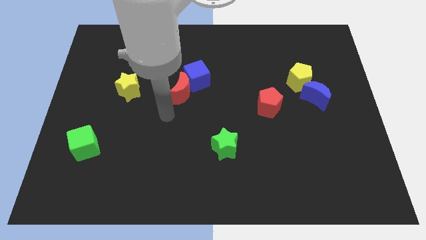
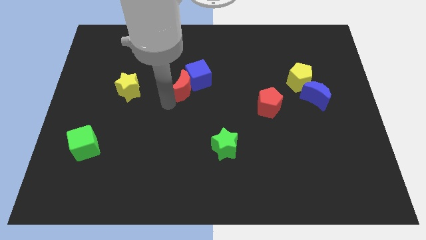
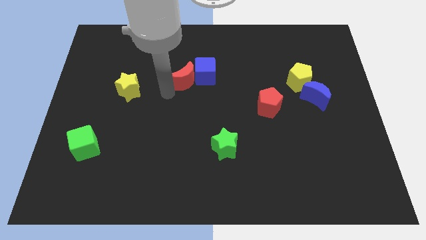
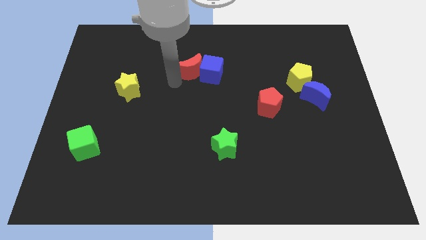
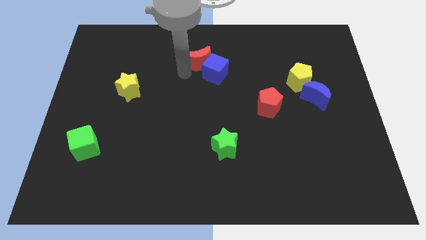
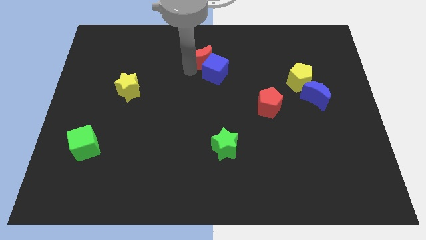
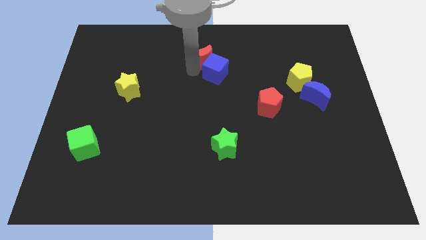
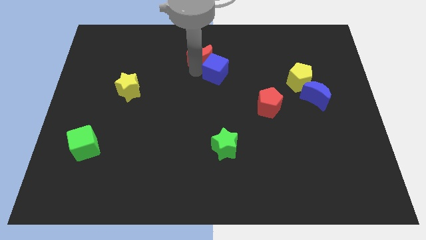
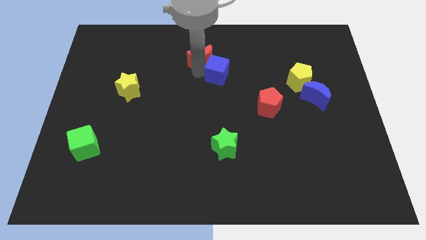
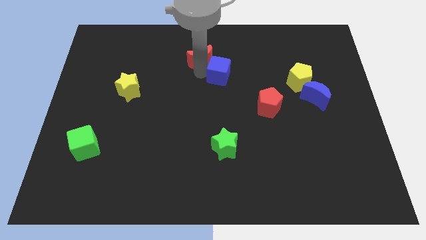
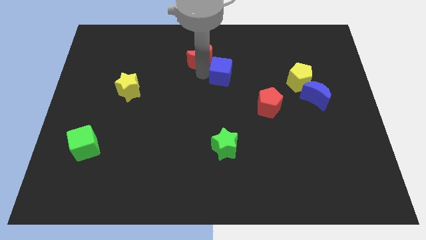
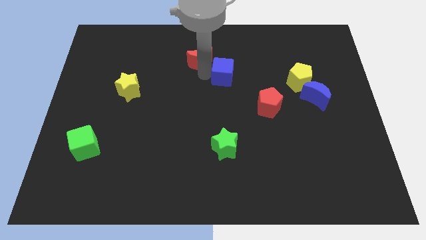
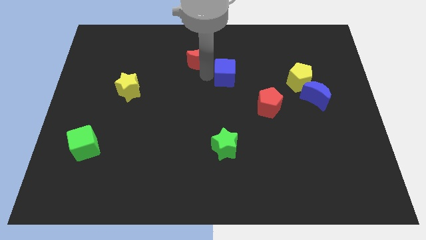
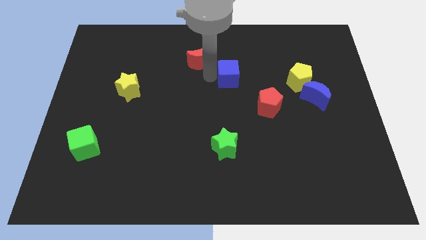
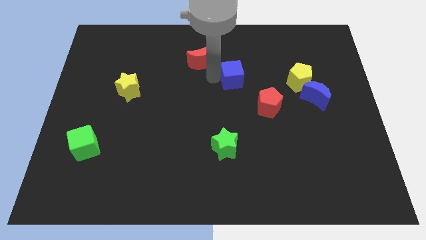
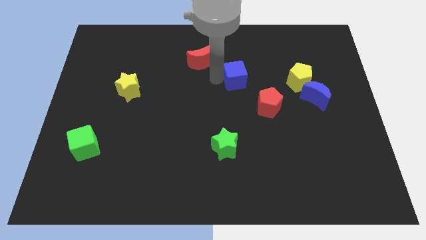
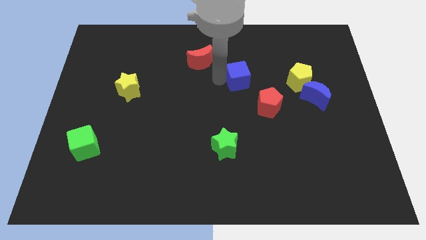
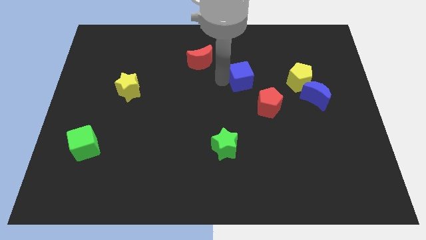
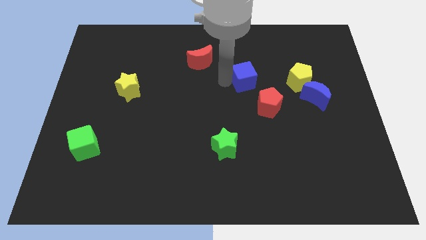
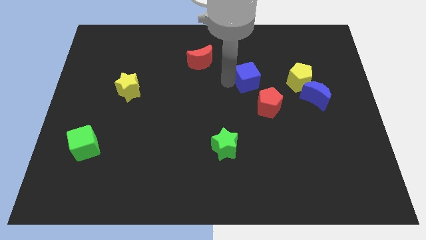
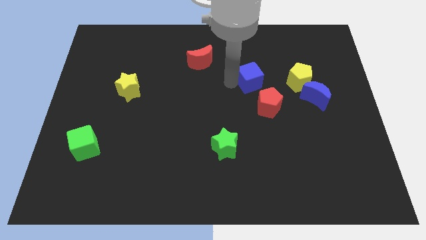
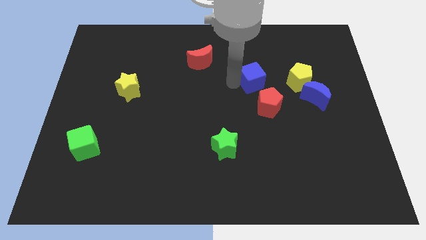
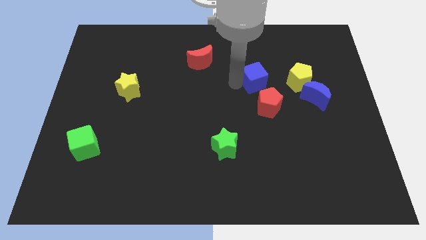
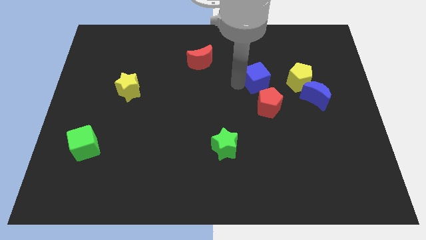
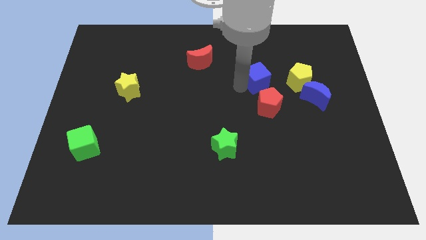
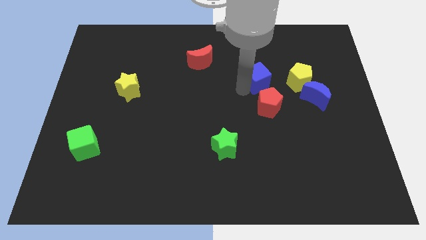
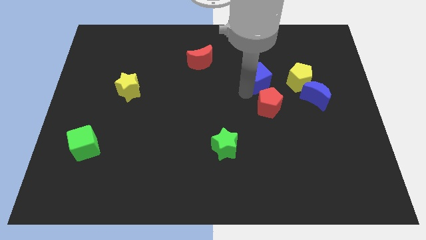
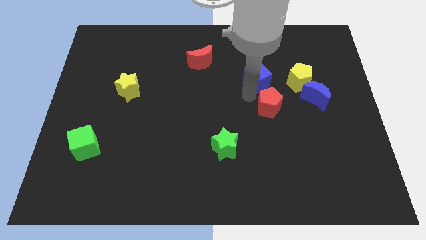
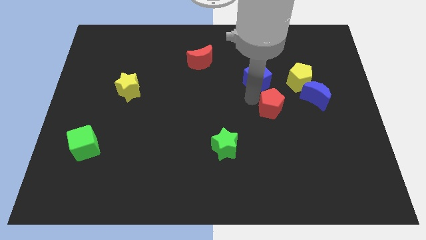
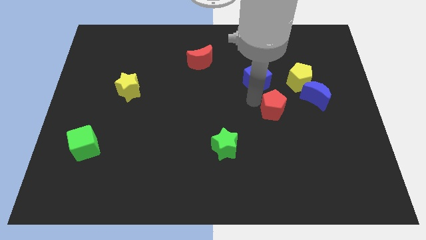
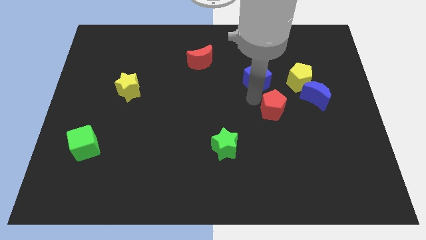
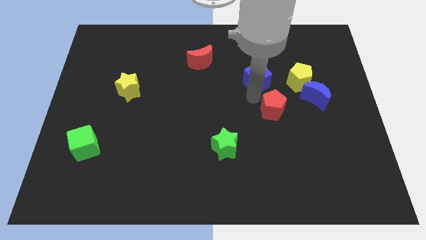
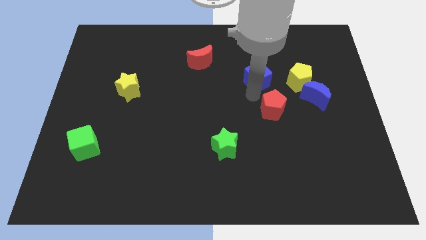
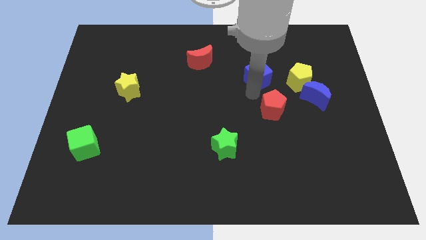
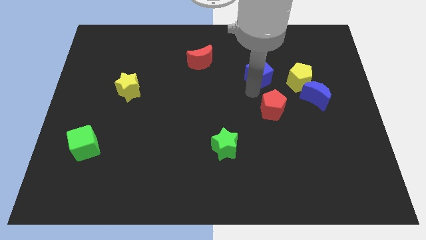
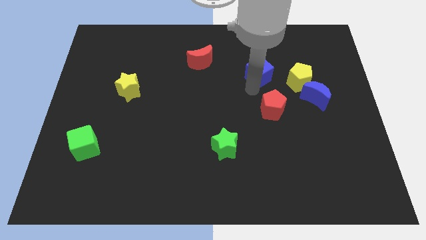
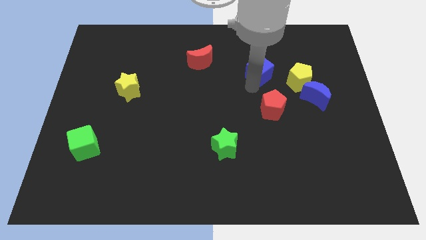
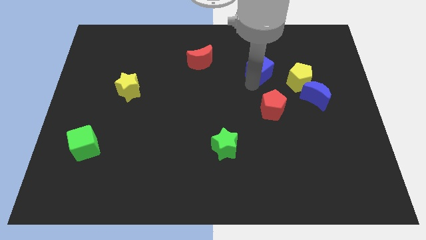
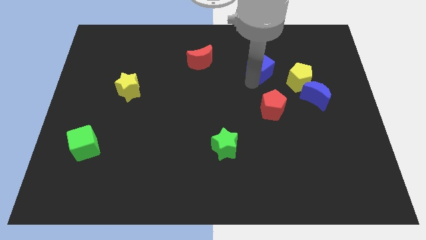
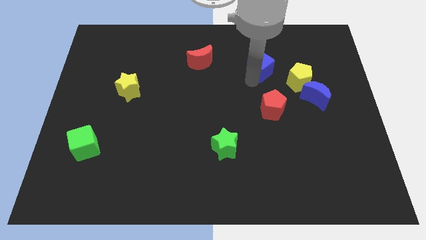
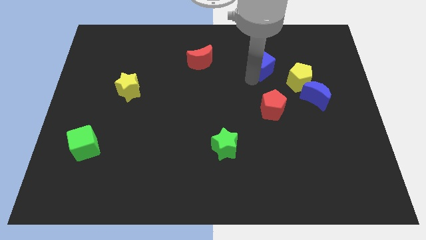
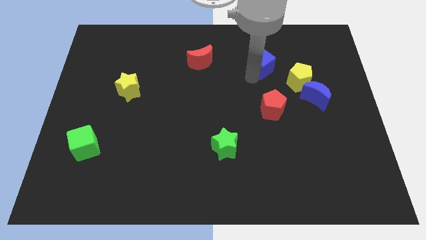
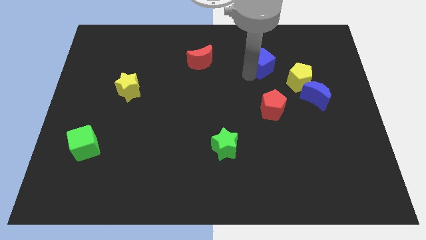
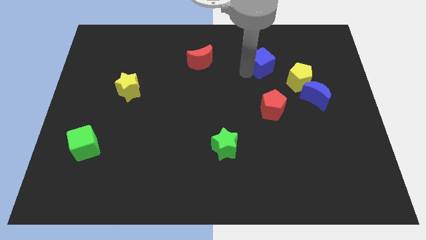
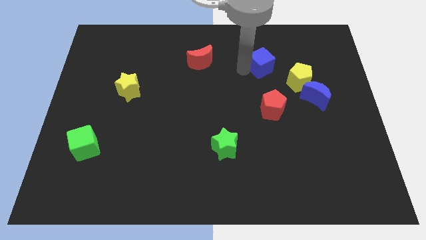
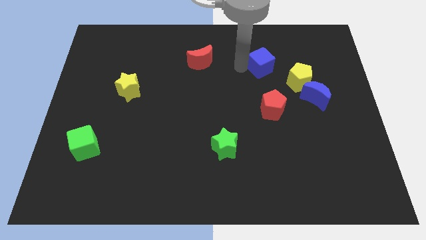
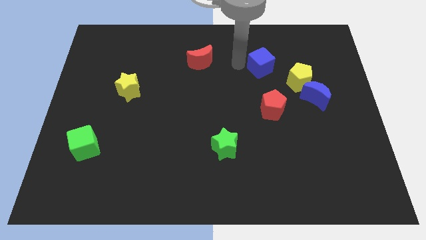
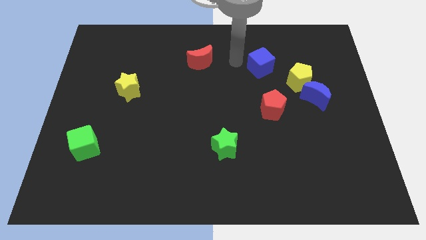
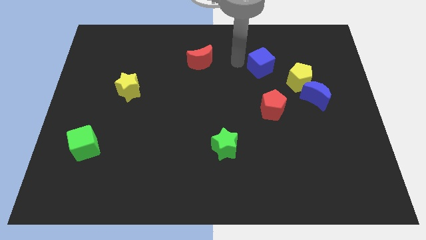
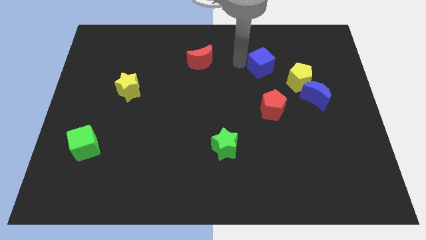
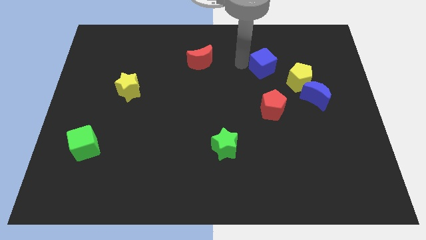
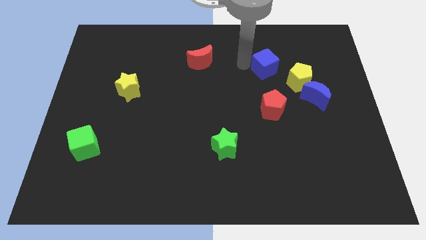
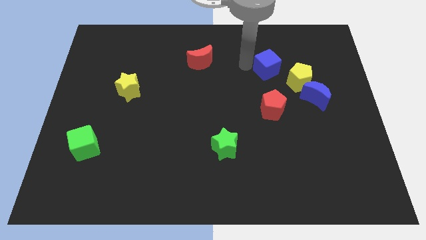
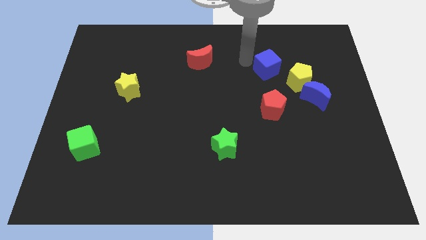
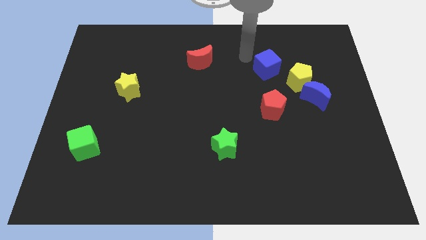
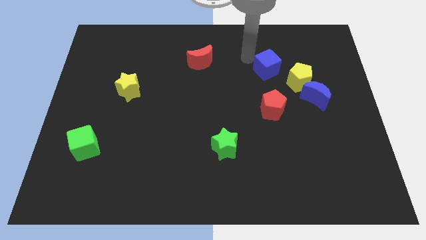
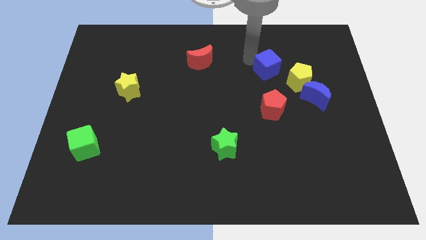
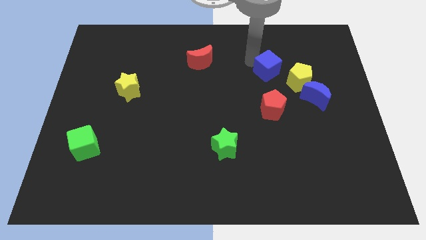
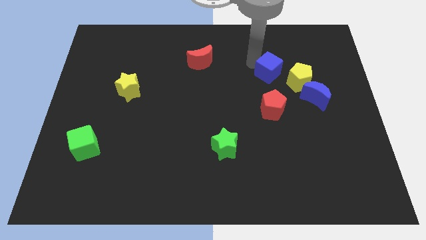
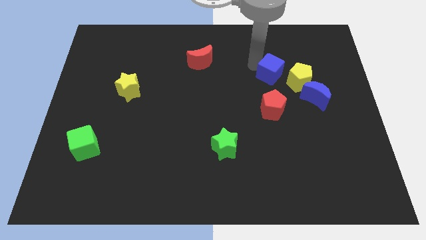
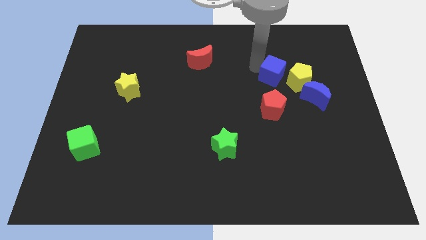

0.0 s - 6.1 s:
put the blue cube to the top left of the blue moon

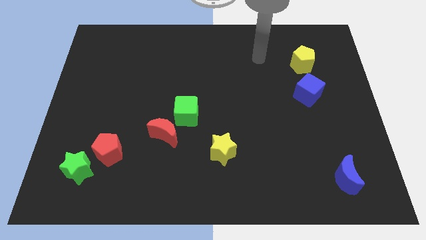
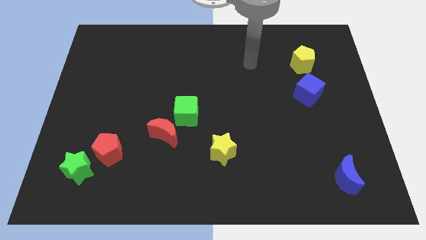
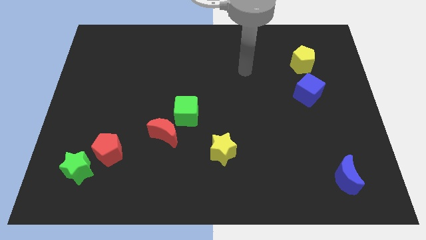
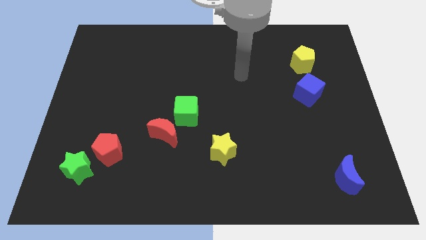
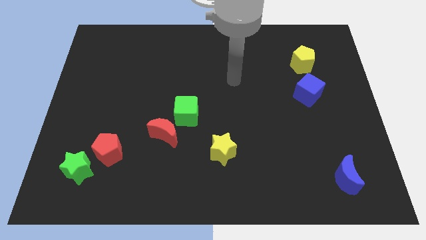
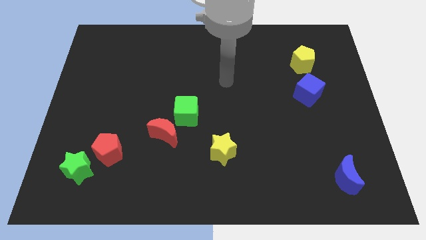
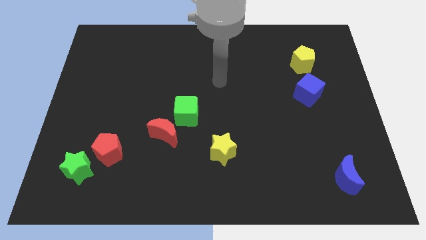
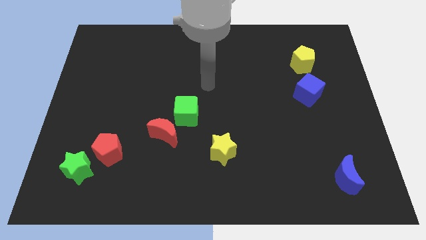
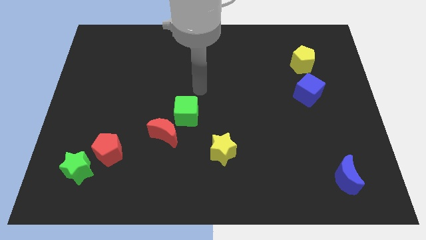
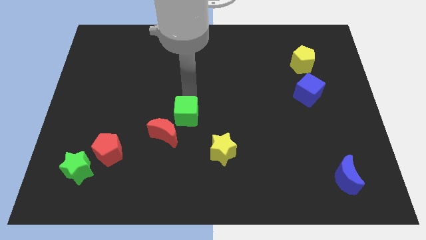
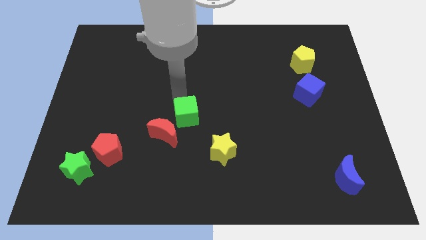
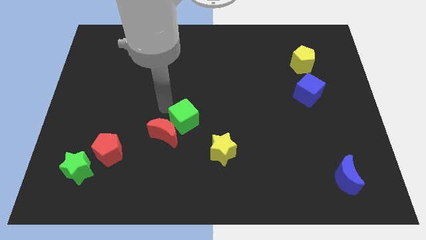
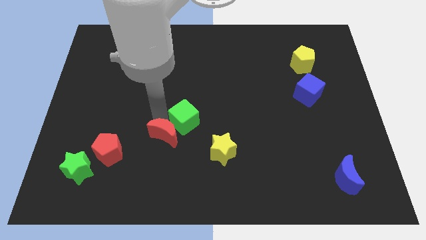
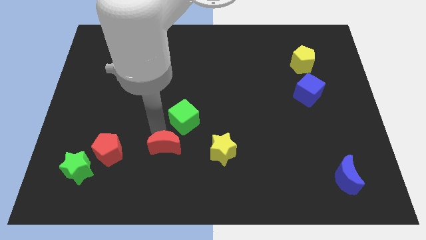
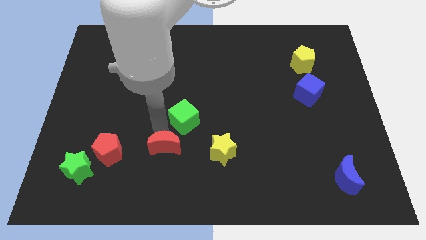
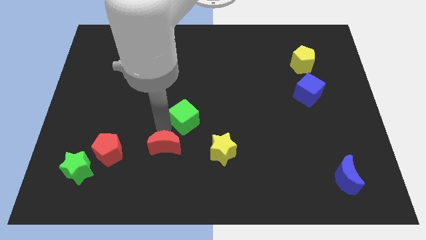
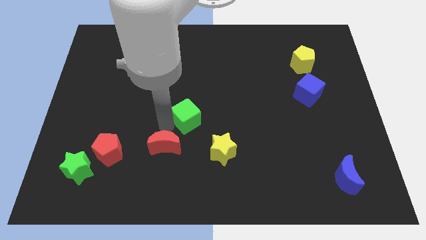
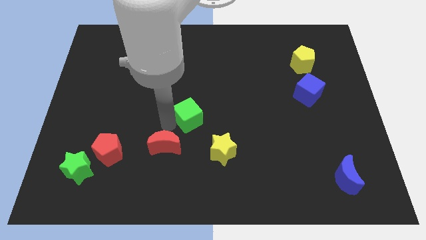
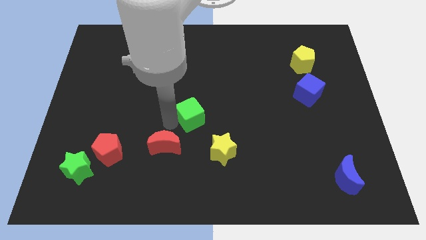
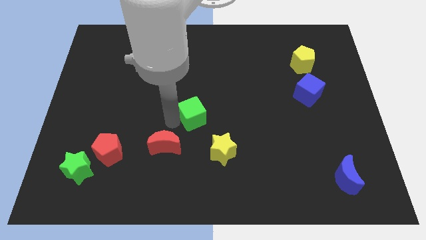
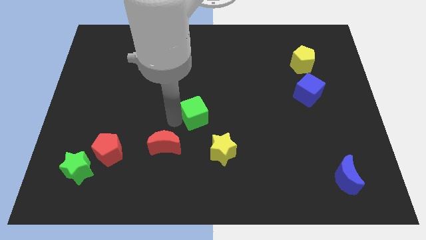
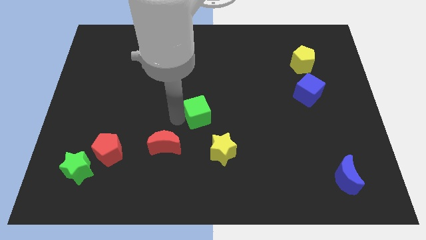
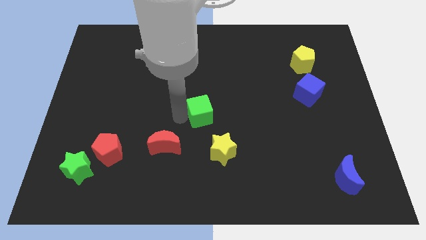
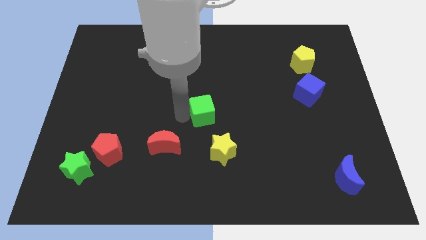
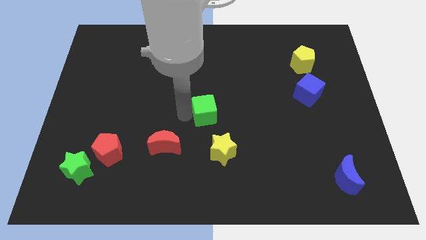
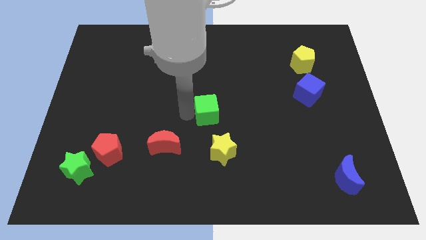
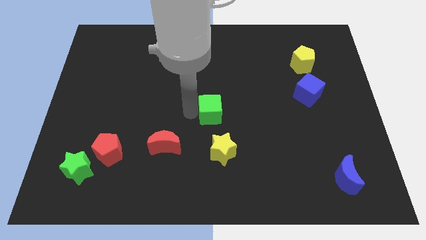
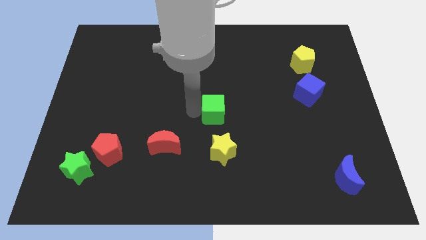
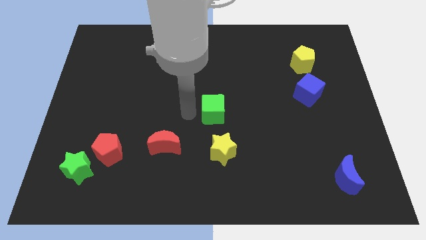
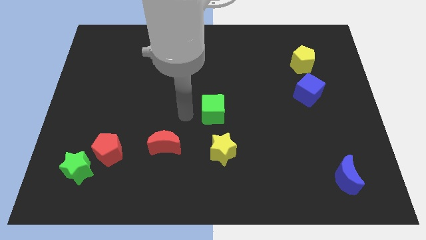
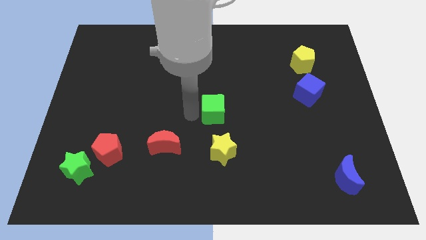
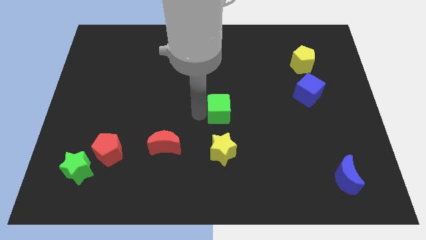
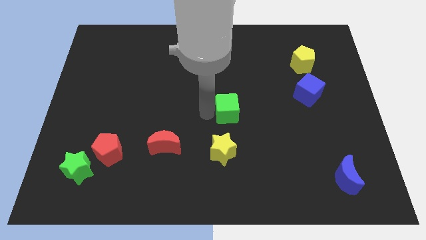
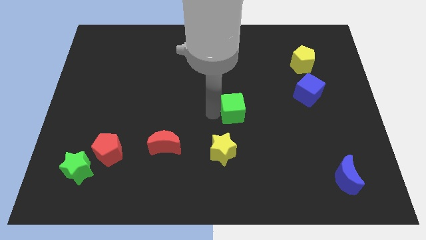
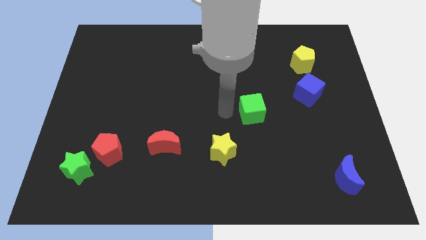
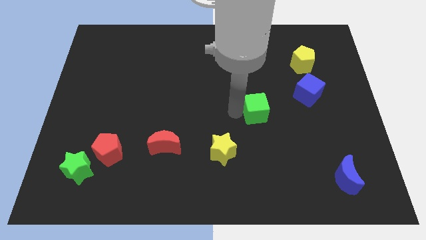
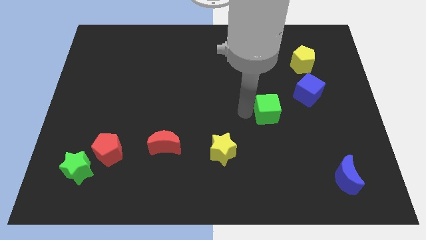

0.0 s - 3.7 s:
move the green cube diagonally down and to the left of the blue cube
